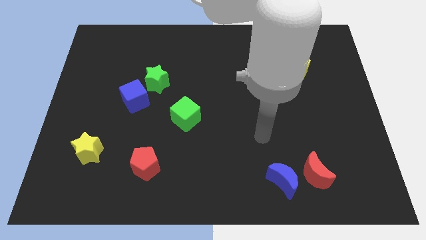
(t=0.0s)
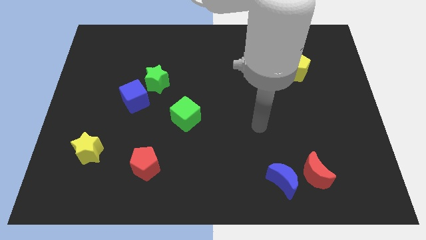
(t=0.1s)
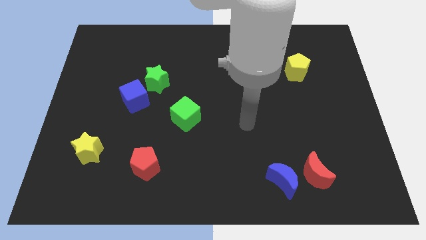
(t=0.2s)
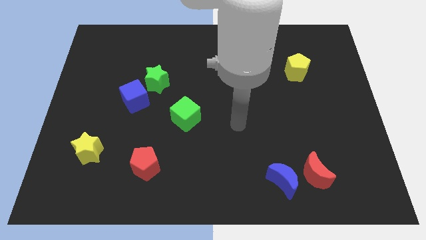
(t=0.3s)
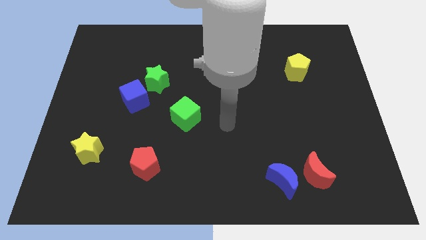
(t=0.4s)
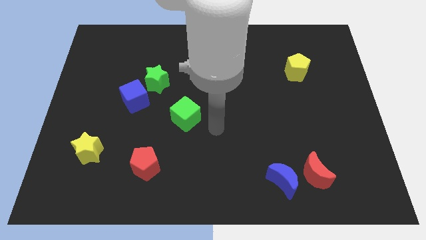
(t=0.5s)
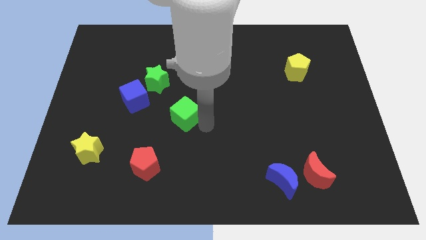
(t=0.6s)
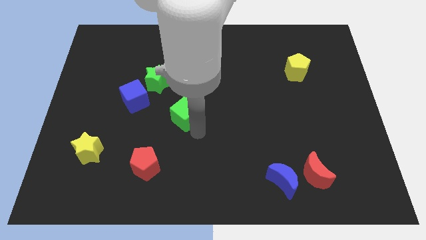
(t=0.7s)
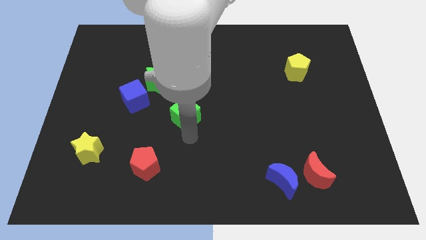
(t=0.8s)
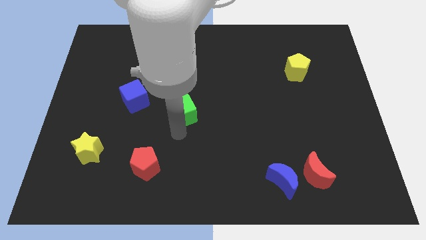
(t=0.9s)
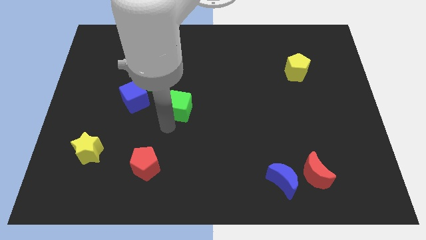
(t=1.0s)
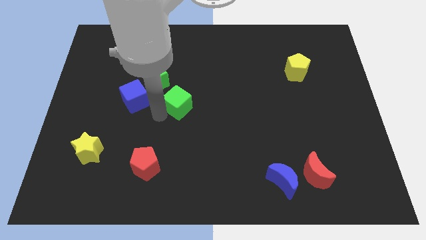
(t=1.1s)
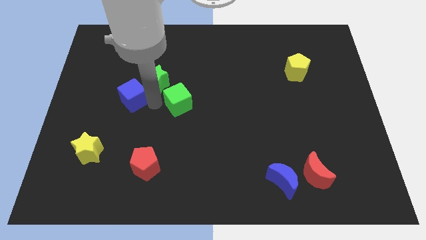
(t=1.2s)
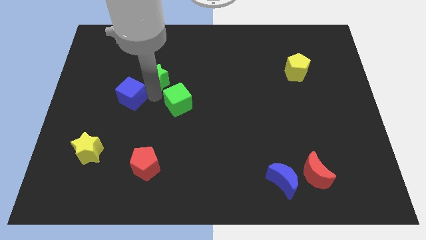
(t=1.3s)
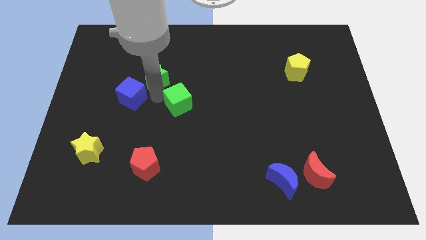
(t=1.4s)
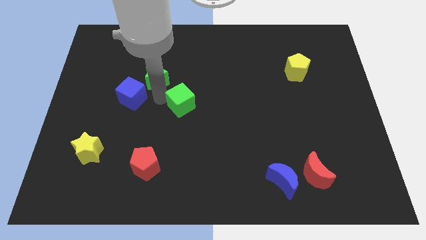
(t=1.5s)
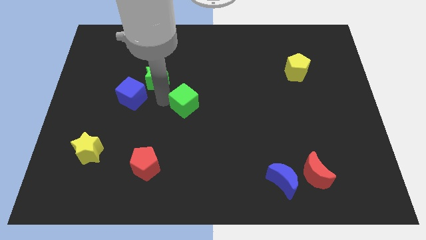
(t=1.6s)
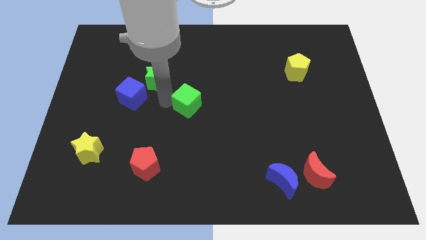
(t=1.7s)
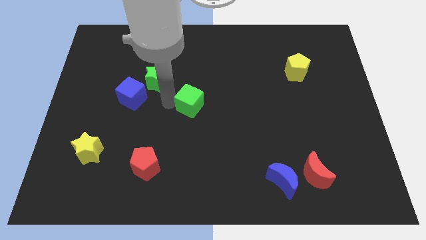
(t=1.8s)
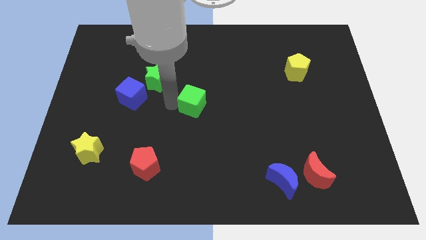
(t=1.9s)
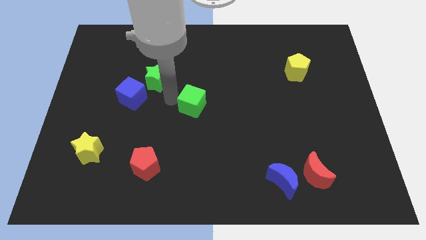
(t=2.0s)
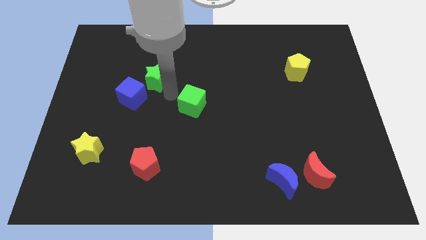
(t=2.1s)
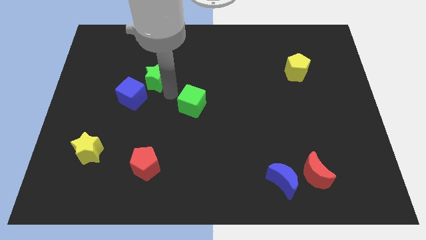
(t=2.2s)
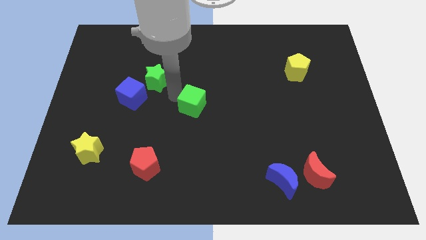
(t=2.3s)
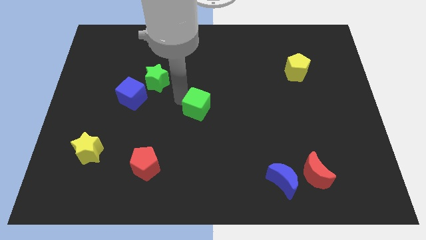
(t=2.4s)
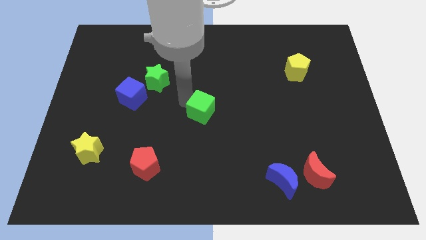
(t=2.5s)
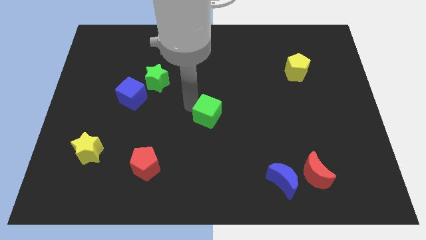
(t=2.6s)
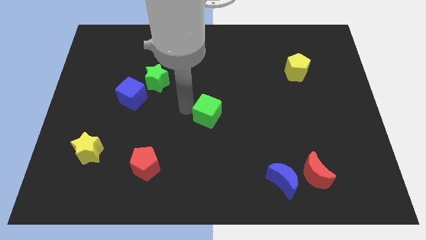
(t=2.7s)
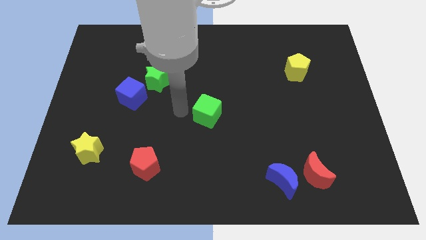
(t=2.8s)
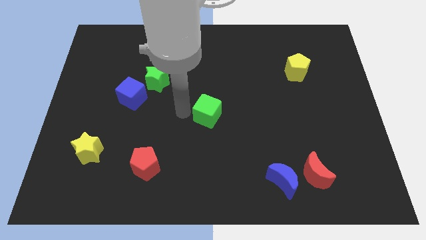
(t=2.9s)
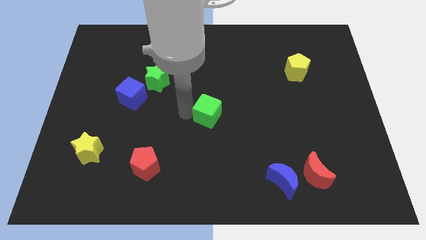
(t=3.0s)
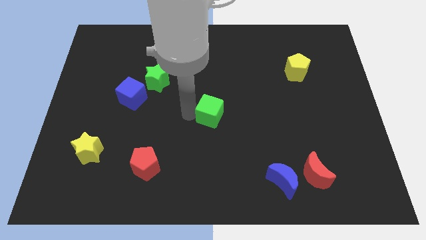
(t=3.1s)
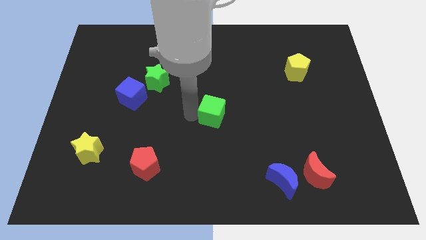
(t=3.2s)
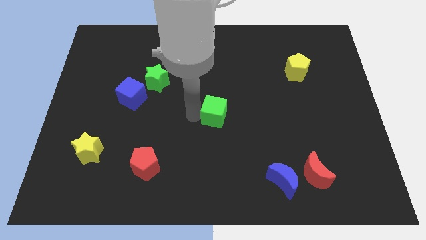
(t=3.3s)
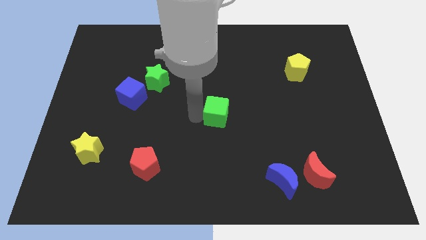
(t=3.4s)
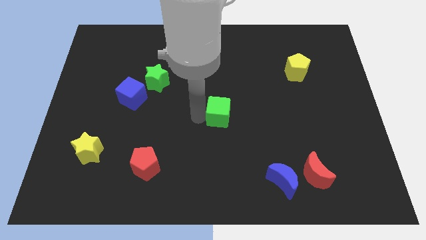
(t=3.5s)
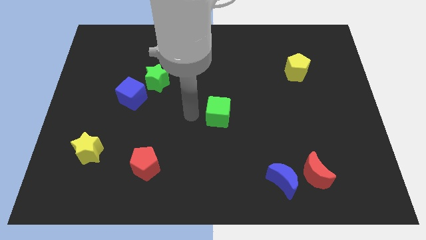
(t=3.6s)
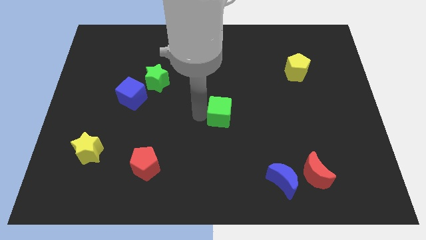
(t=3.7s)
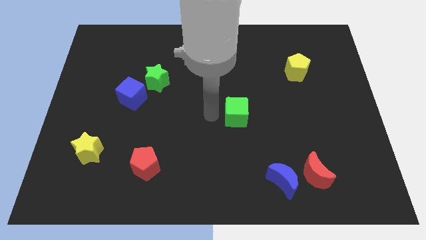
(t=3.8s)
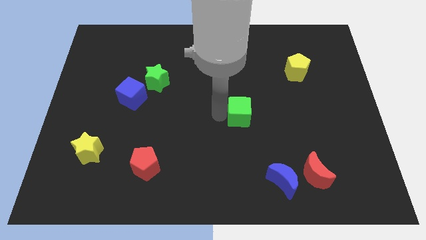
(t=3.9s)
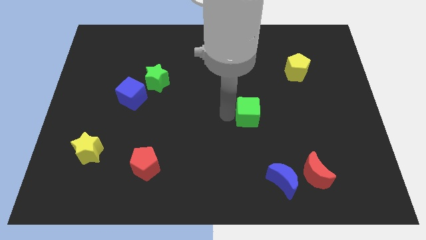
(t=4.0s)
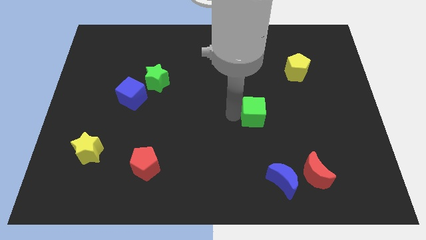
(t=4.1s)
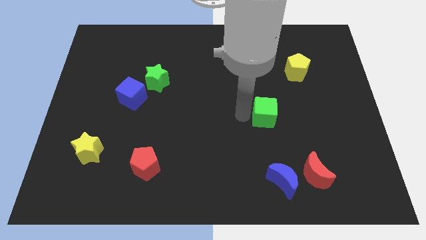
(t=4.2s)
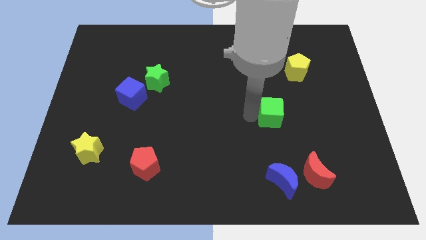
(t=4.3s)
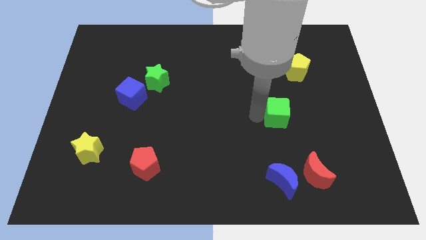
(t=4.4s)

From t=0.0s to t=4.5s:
push the green cube right

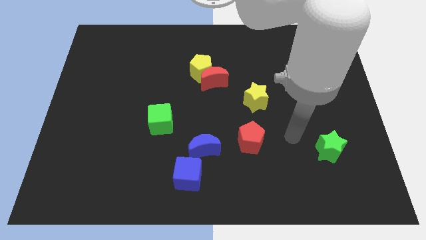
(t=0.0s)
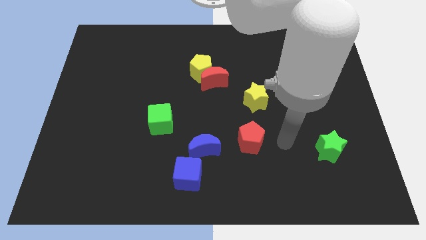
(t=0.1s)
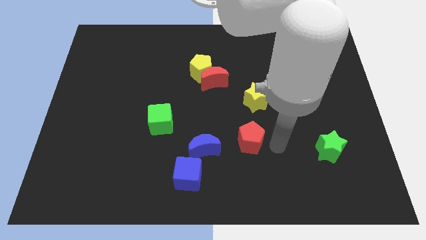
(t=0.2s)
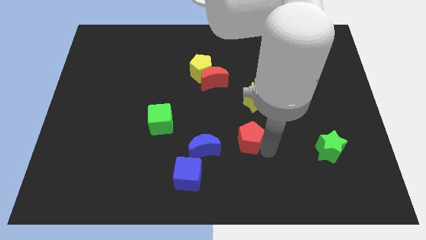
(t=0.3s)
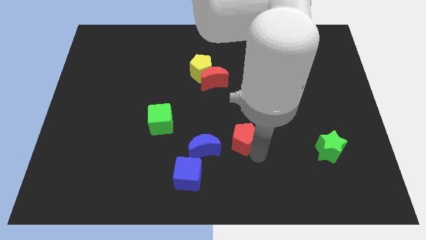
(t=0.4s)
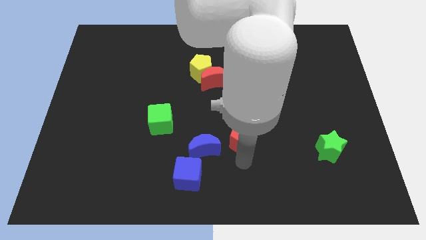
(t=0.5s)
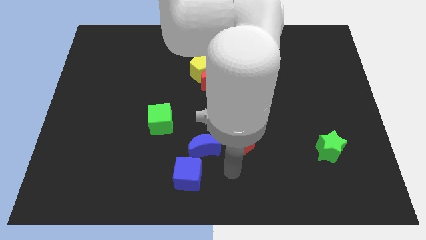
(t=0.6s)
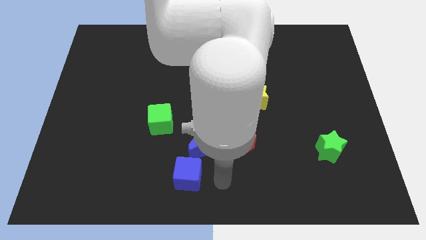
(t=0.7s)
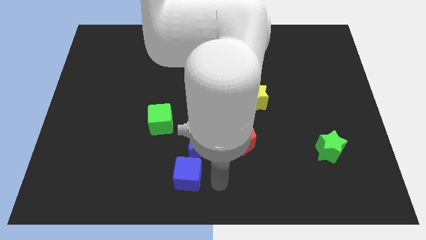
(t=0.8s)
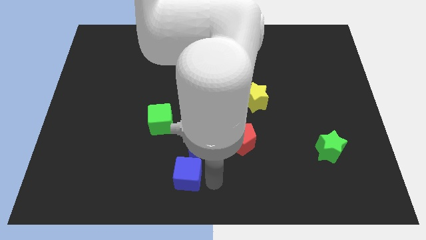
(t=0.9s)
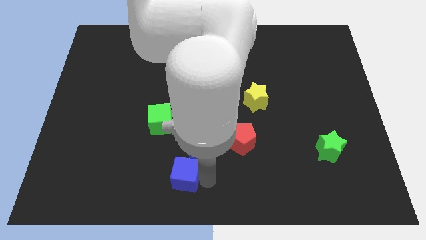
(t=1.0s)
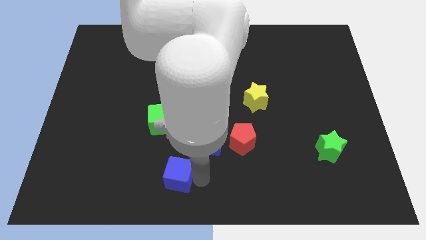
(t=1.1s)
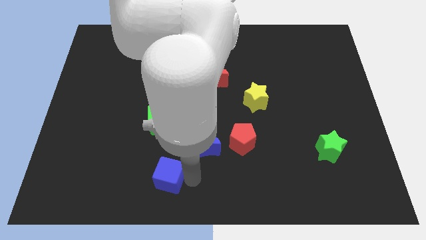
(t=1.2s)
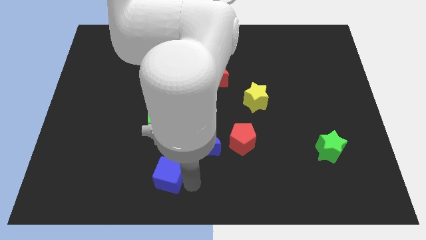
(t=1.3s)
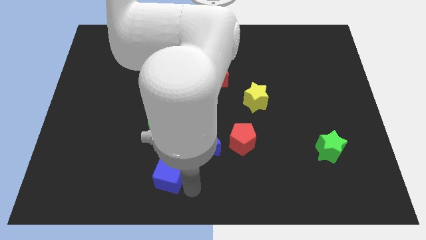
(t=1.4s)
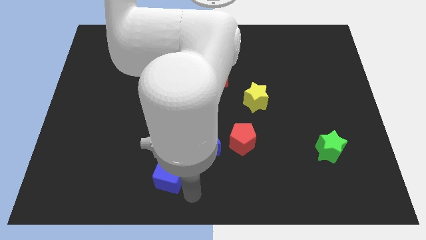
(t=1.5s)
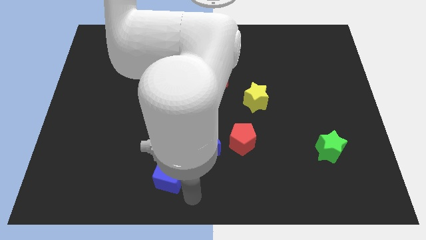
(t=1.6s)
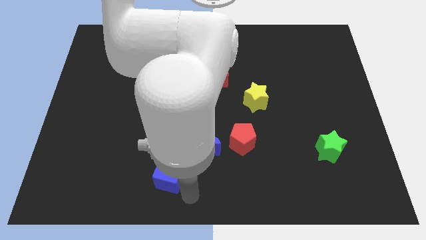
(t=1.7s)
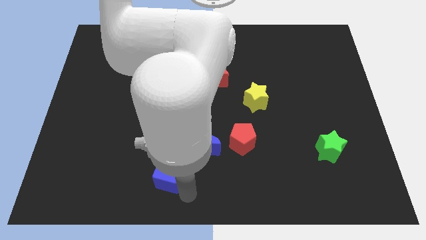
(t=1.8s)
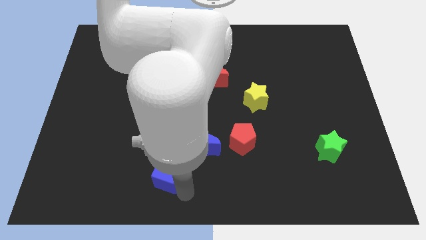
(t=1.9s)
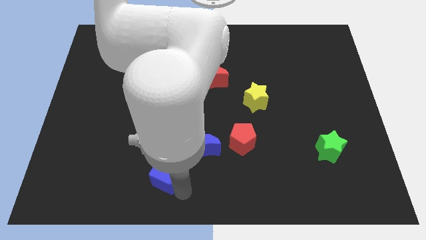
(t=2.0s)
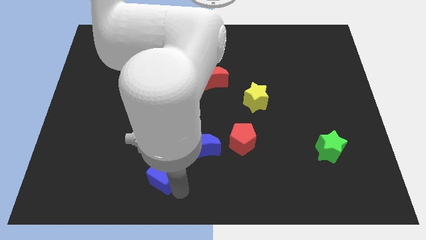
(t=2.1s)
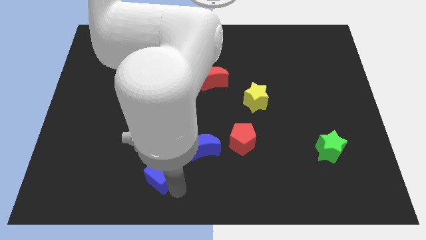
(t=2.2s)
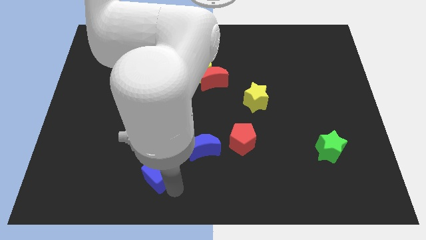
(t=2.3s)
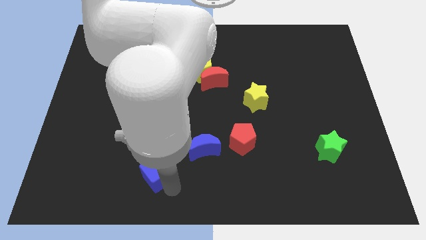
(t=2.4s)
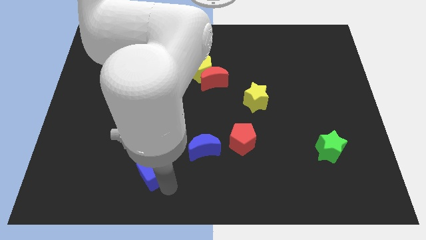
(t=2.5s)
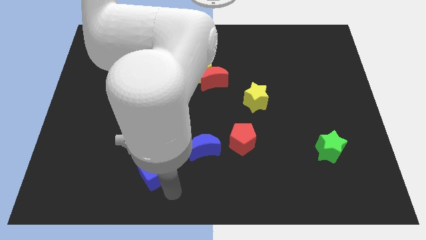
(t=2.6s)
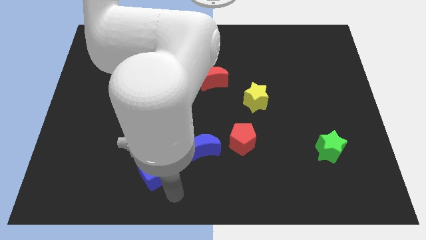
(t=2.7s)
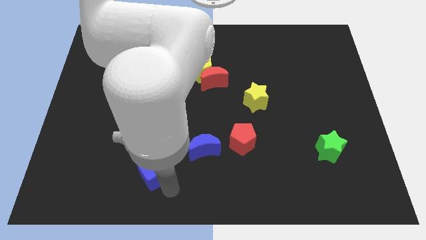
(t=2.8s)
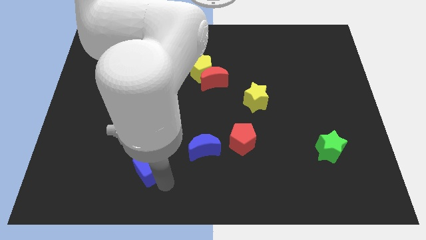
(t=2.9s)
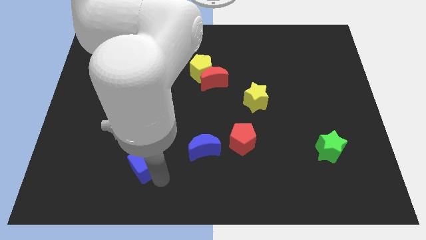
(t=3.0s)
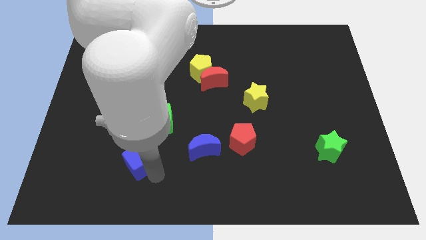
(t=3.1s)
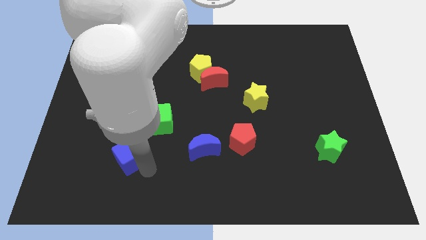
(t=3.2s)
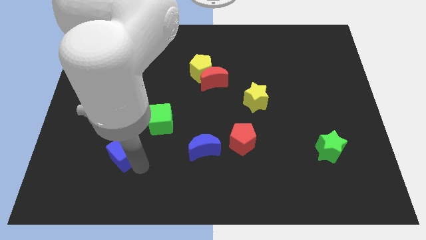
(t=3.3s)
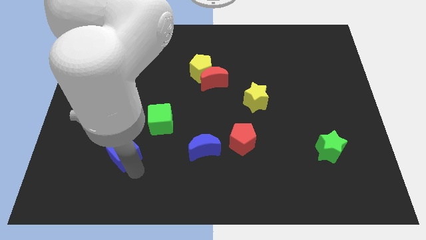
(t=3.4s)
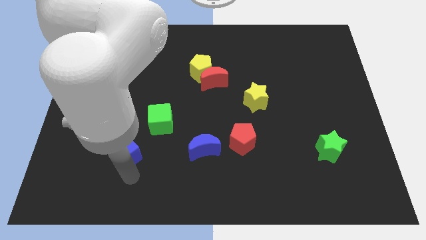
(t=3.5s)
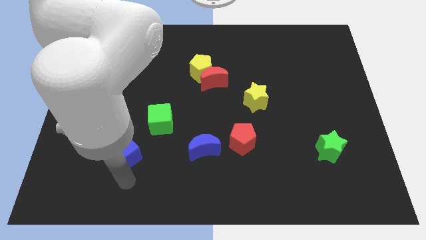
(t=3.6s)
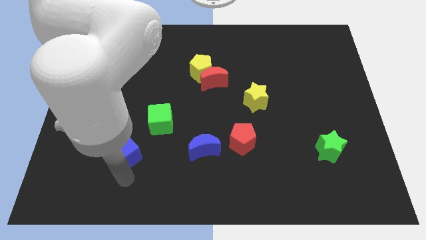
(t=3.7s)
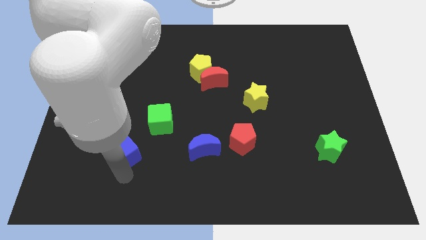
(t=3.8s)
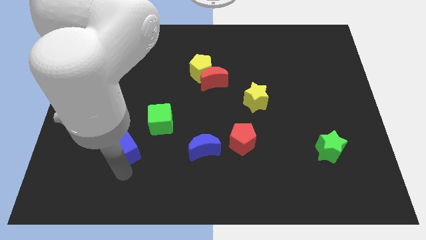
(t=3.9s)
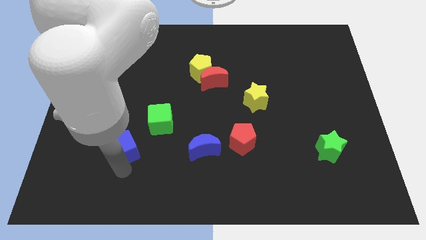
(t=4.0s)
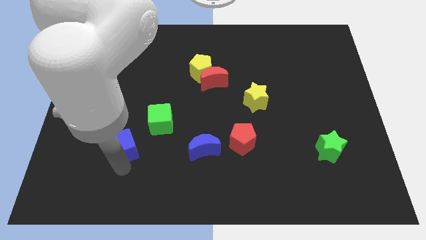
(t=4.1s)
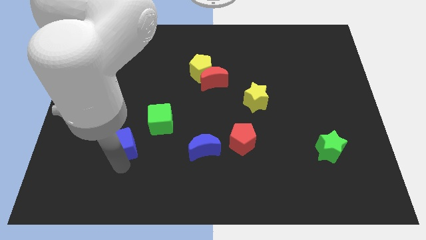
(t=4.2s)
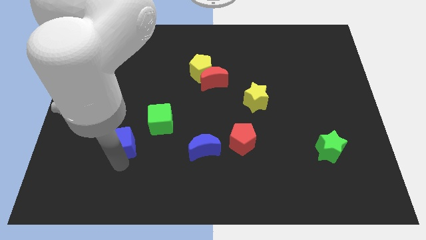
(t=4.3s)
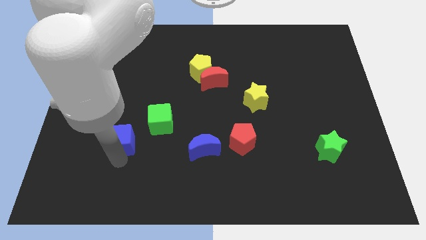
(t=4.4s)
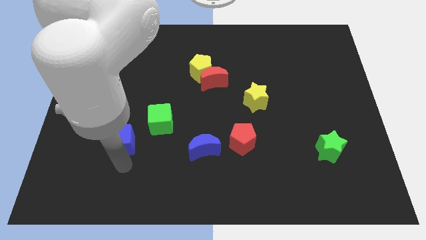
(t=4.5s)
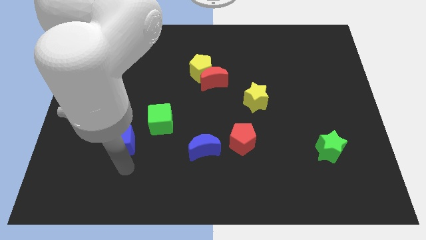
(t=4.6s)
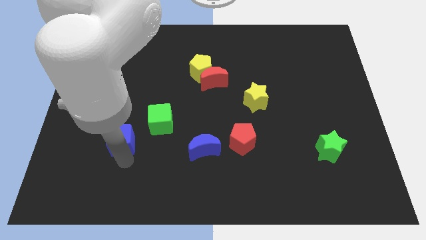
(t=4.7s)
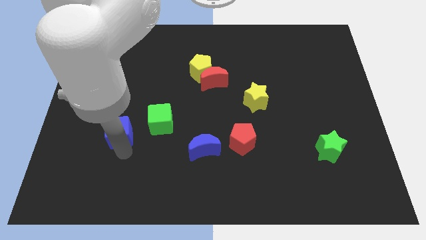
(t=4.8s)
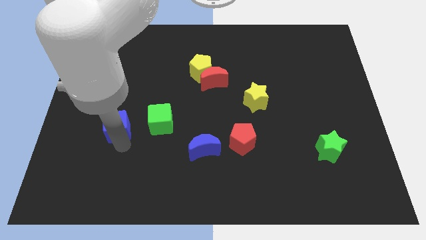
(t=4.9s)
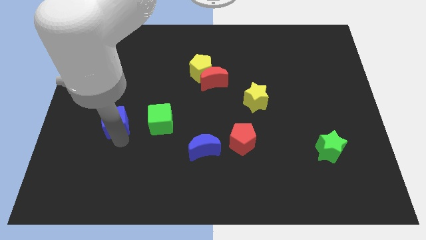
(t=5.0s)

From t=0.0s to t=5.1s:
slide the blue cube up and left diagonally
